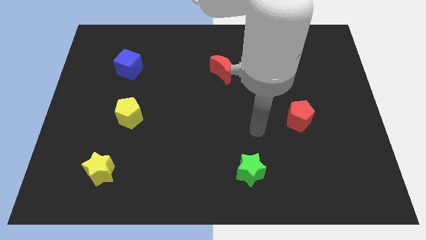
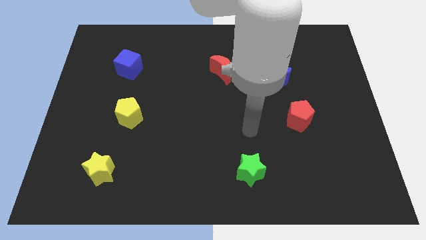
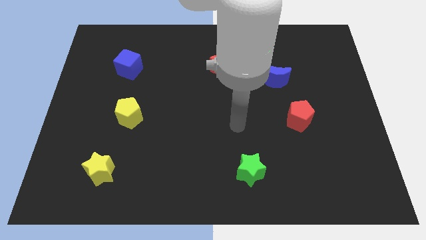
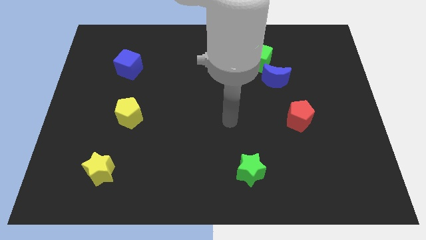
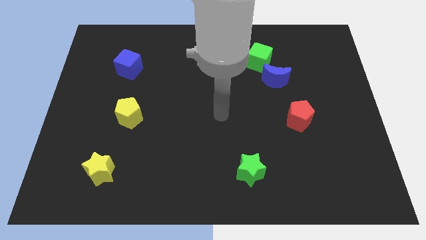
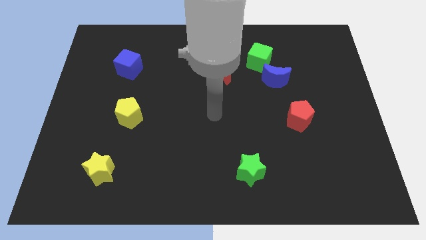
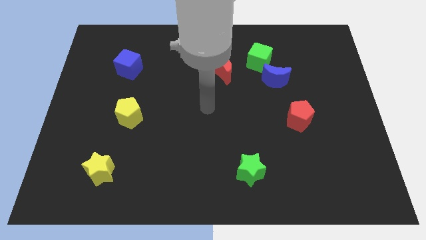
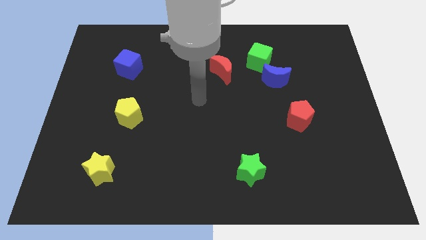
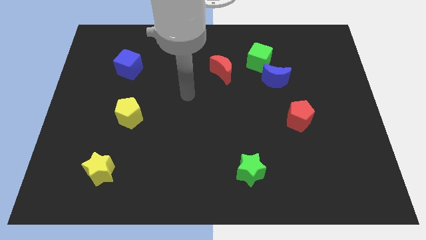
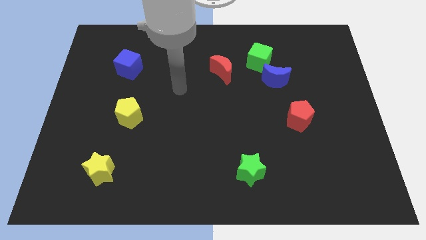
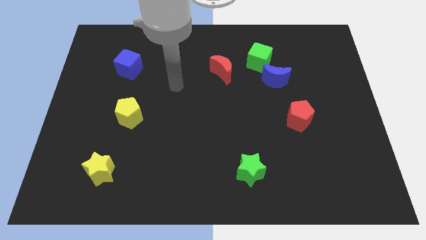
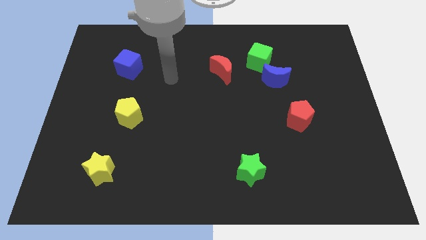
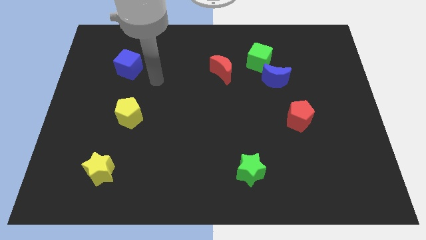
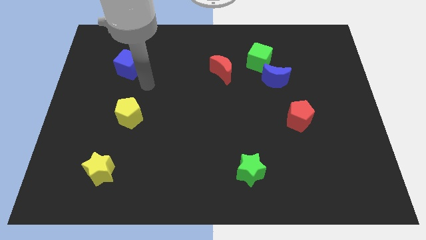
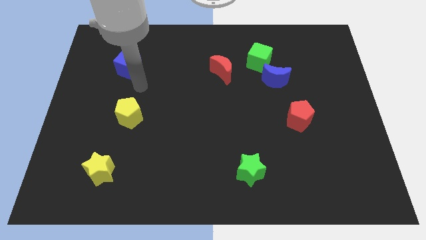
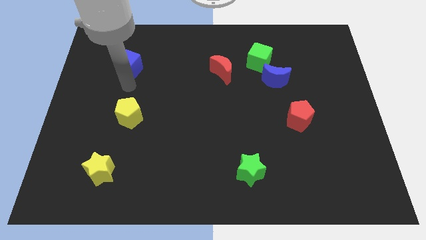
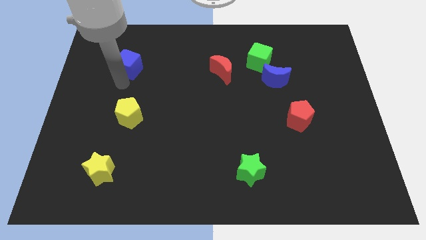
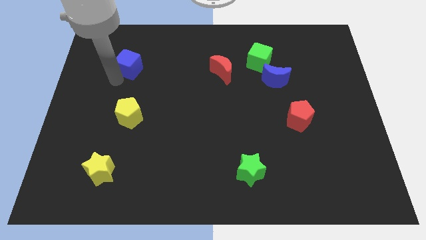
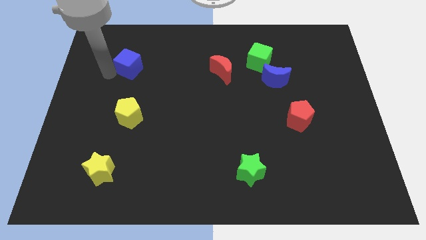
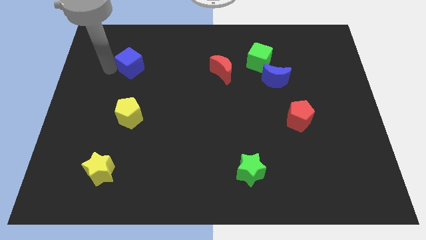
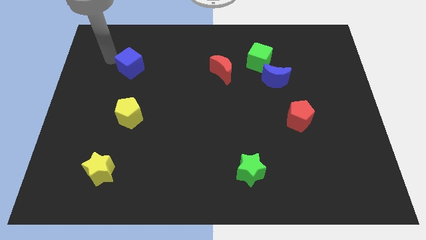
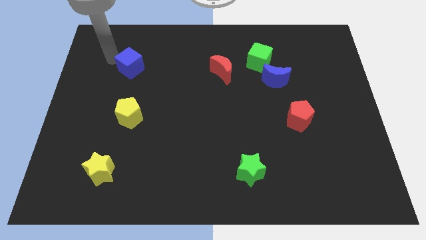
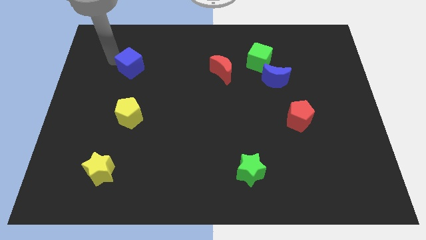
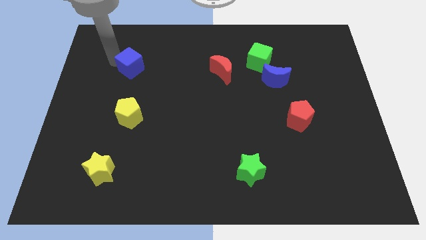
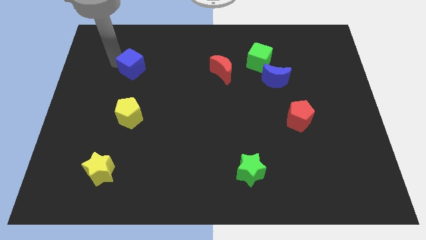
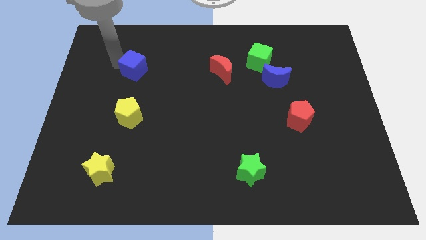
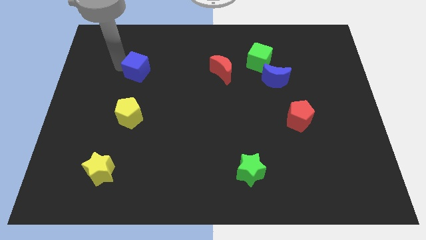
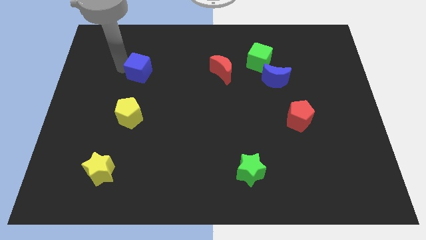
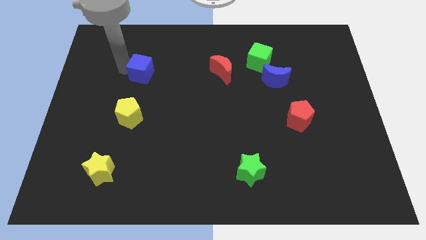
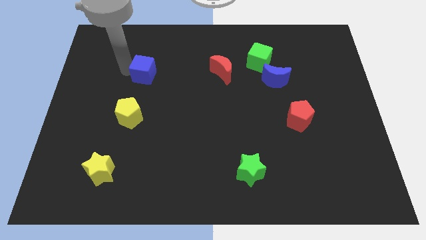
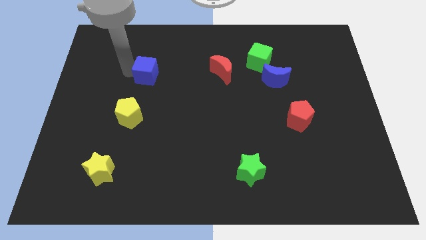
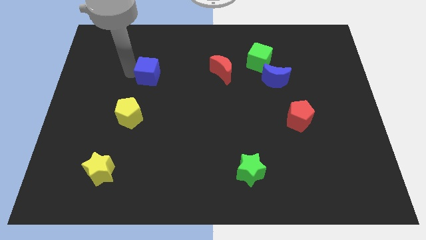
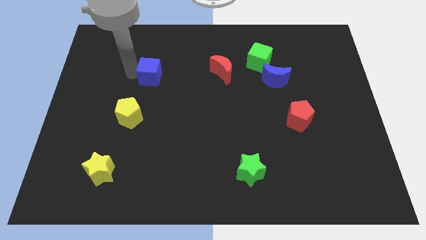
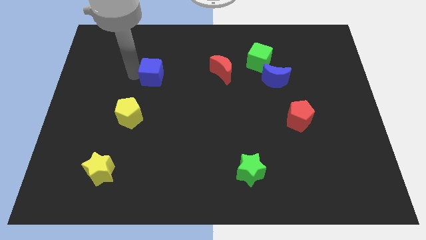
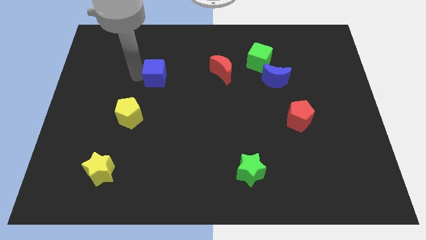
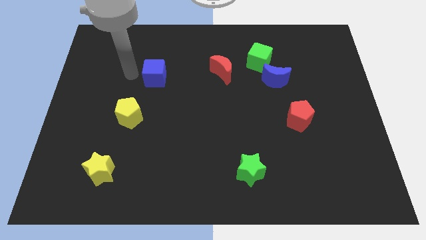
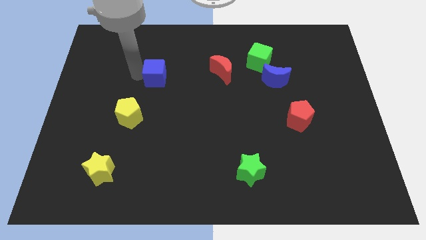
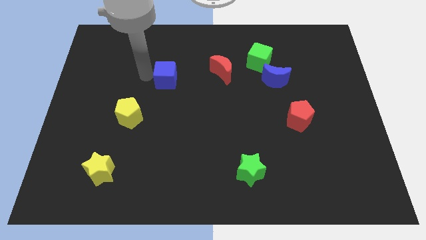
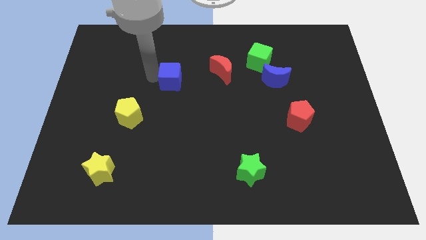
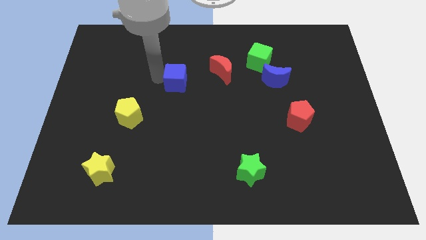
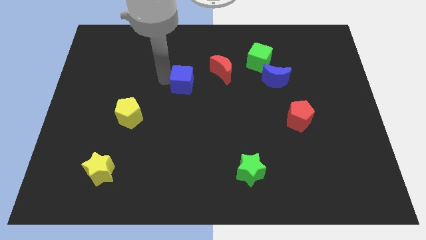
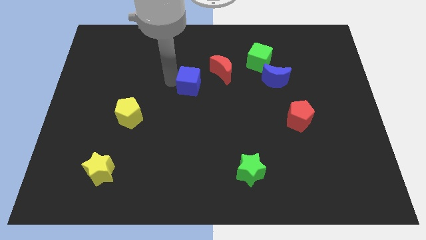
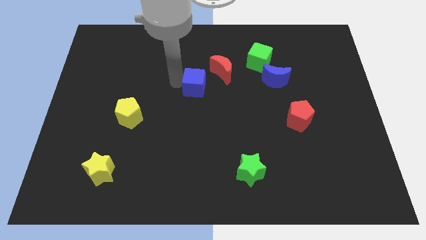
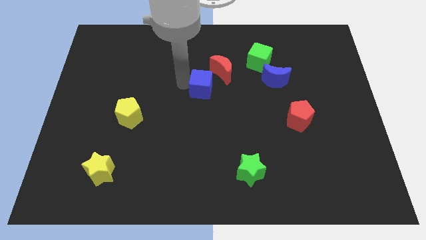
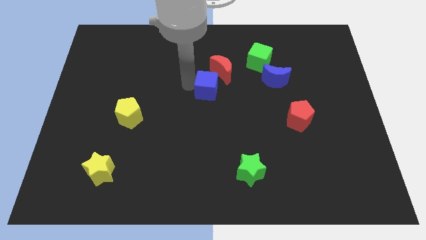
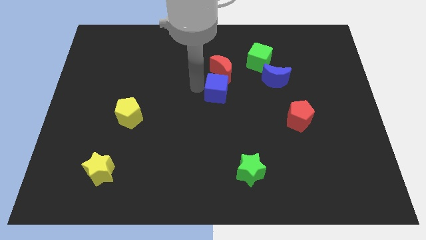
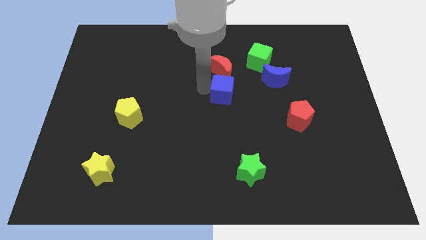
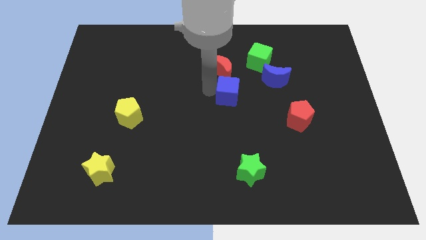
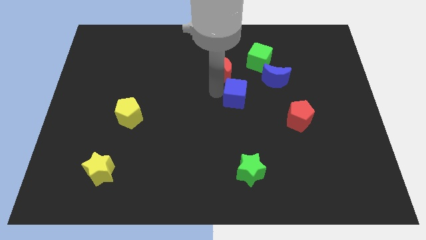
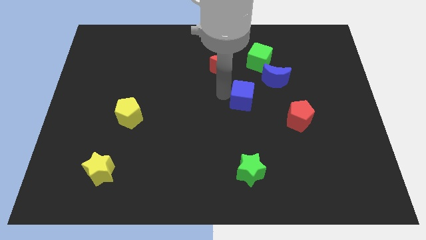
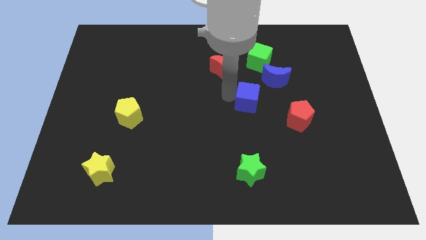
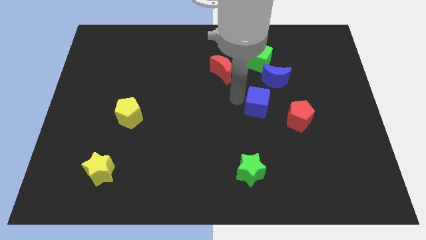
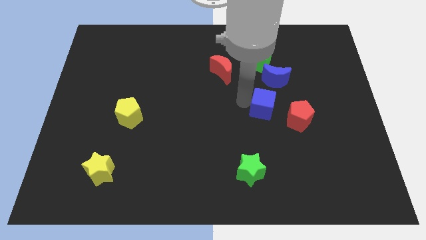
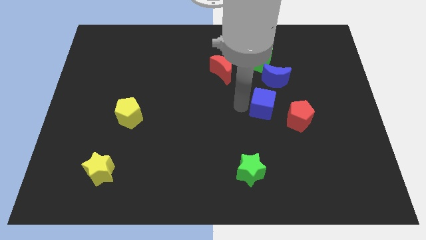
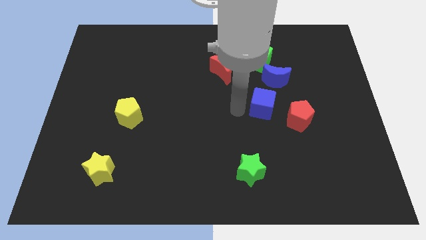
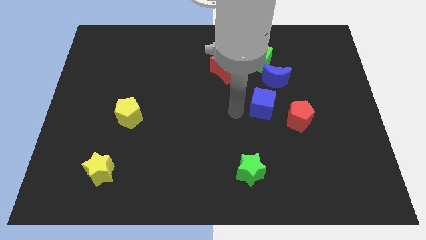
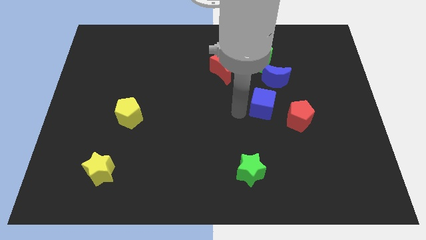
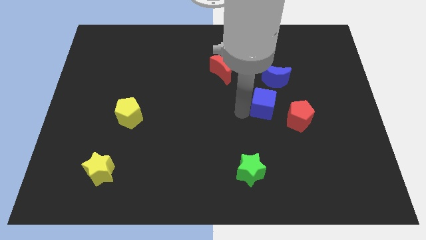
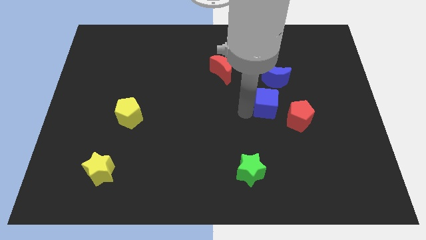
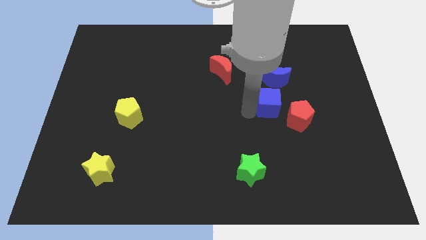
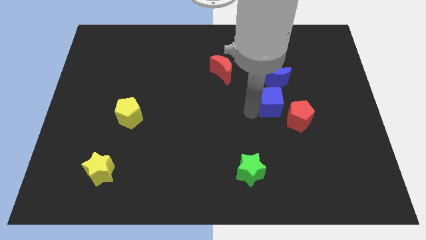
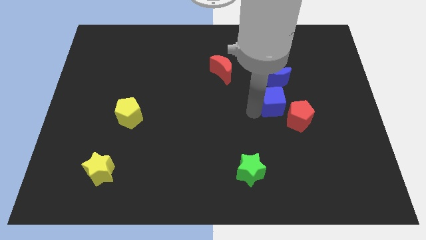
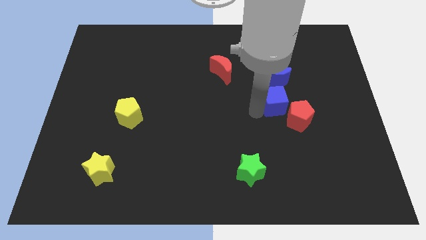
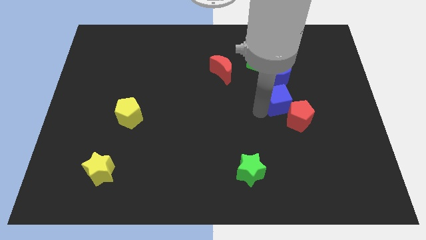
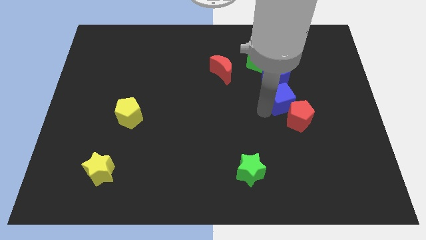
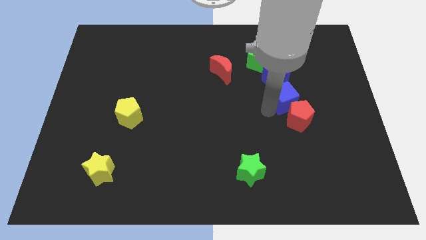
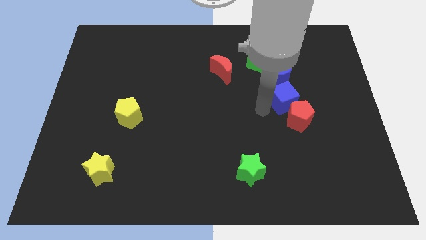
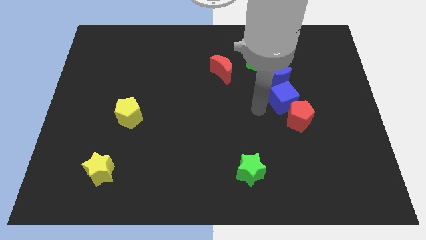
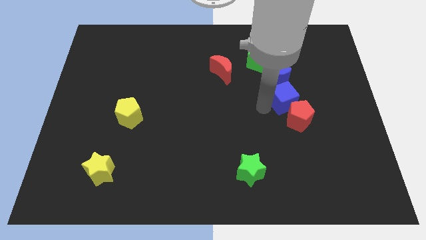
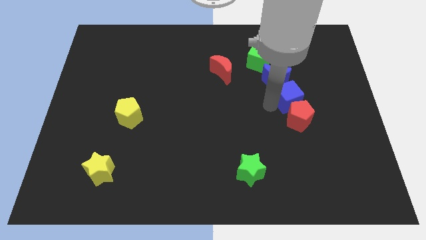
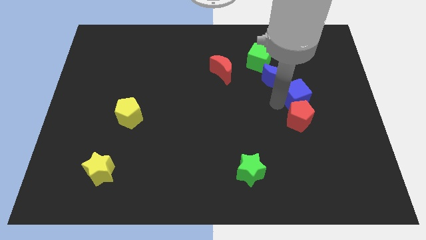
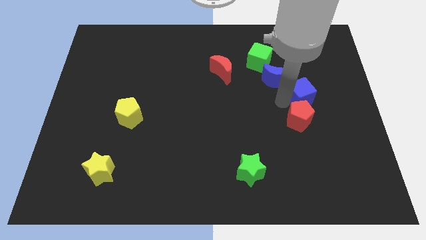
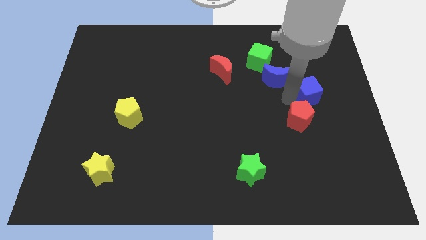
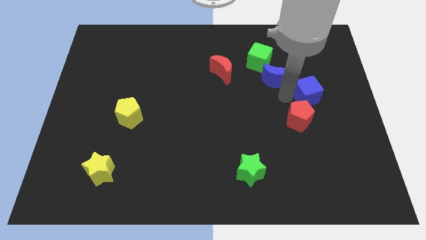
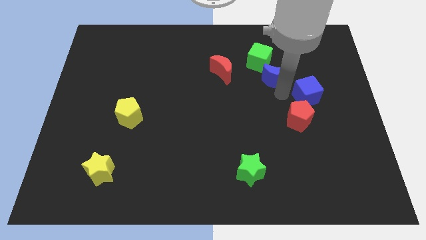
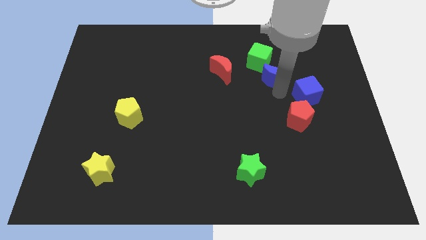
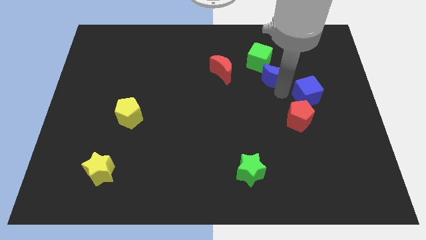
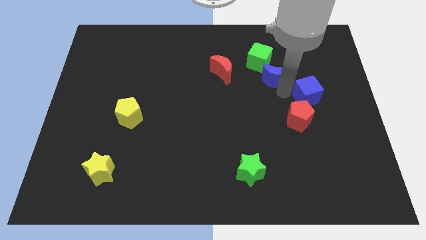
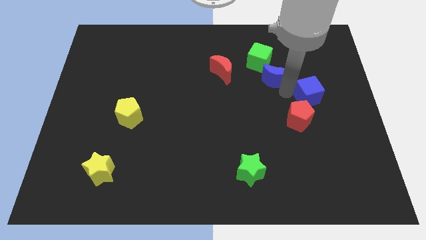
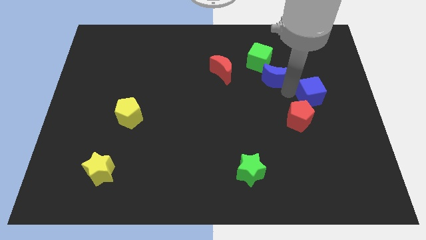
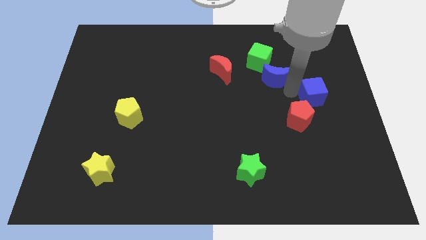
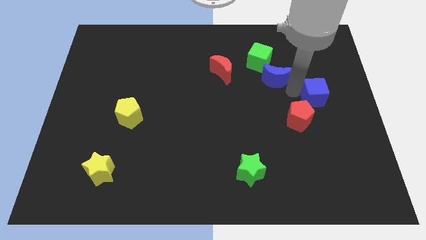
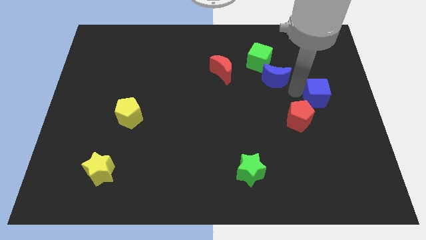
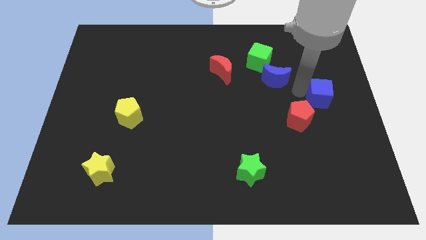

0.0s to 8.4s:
put the blue cube to the right side of the board
